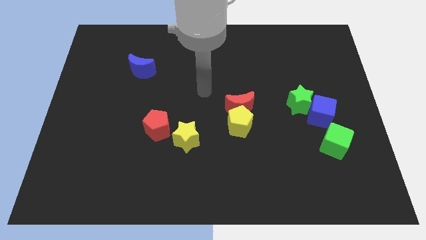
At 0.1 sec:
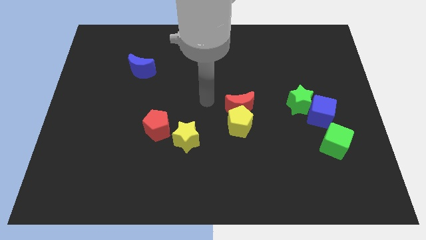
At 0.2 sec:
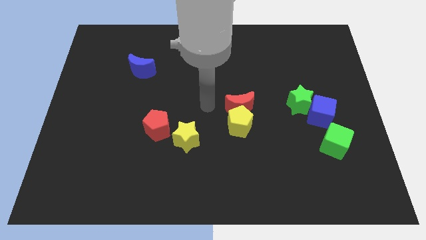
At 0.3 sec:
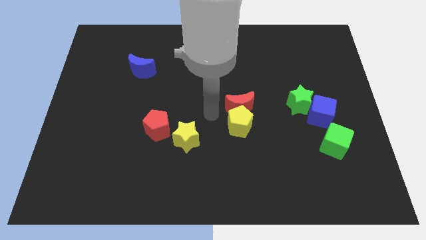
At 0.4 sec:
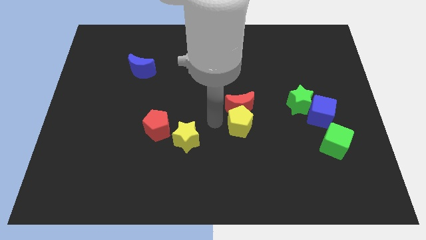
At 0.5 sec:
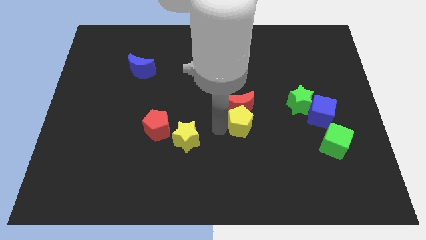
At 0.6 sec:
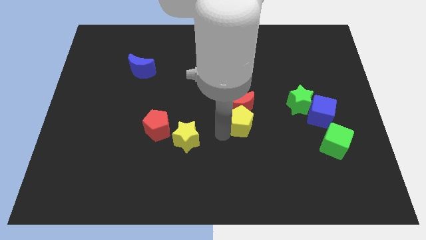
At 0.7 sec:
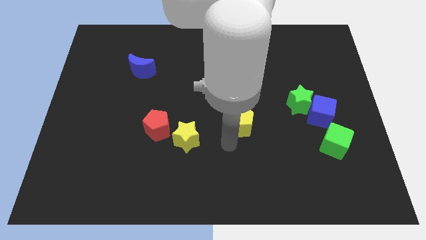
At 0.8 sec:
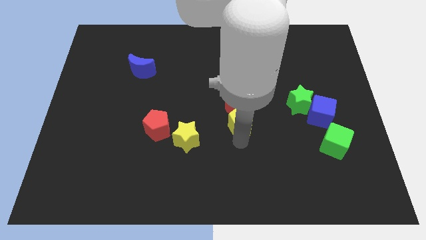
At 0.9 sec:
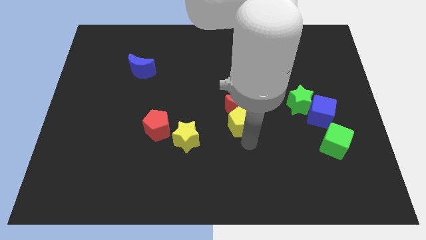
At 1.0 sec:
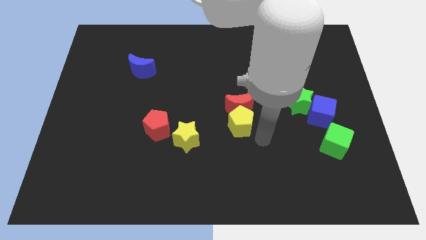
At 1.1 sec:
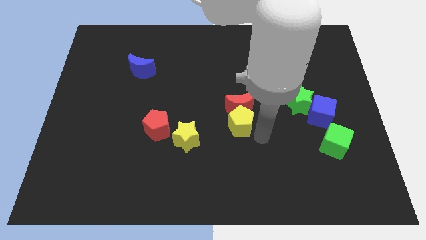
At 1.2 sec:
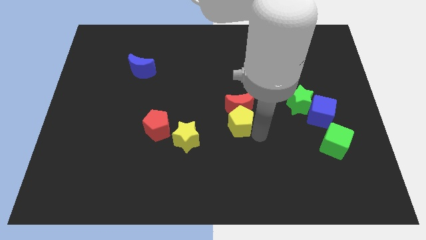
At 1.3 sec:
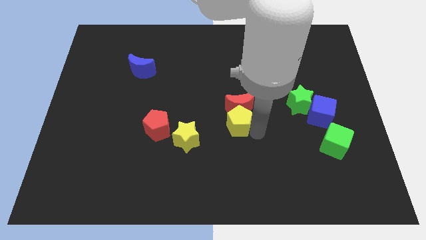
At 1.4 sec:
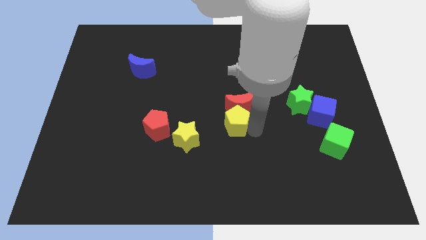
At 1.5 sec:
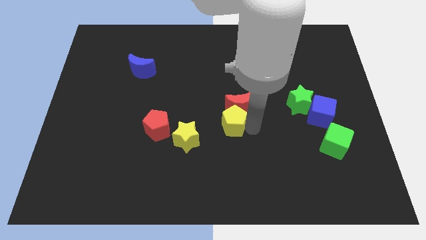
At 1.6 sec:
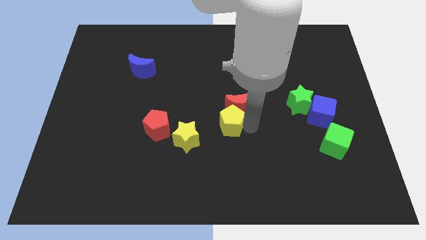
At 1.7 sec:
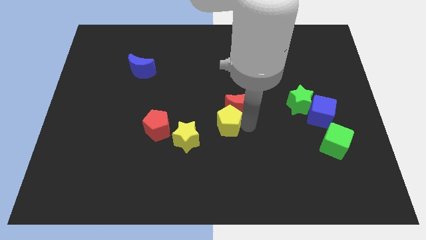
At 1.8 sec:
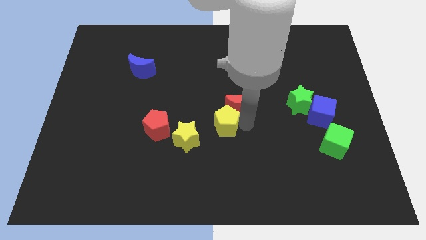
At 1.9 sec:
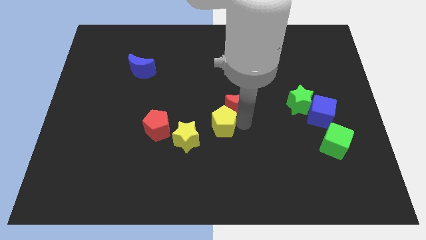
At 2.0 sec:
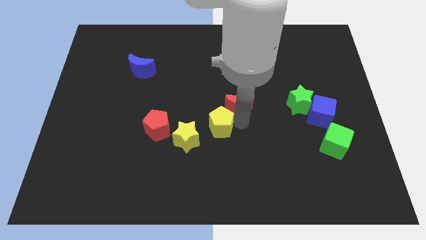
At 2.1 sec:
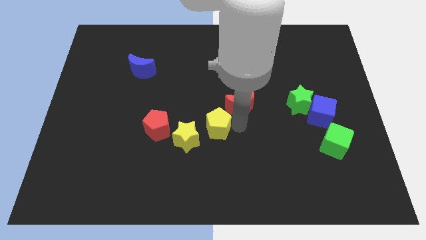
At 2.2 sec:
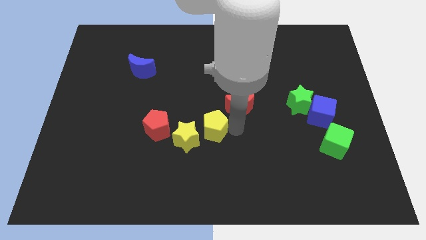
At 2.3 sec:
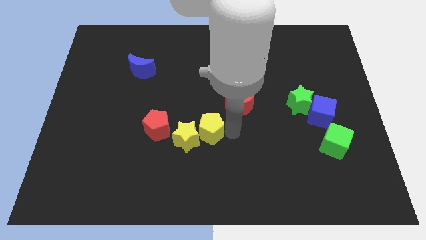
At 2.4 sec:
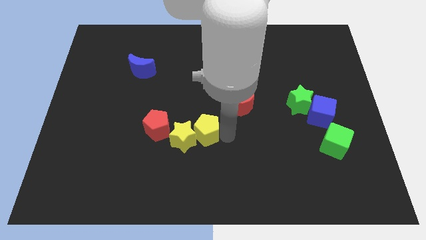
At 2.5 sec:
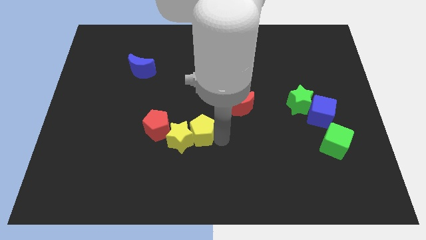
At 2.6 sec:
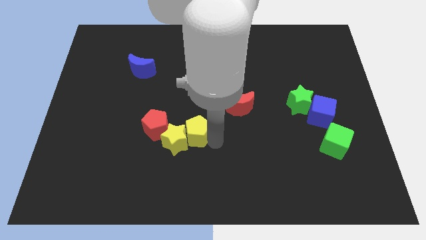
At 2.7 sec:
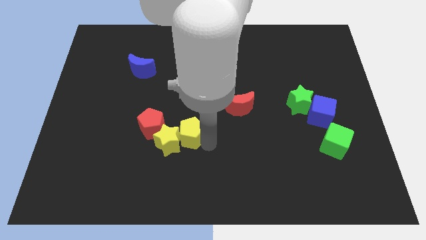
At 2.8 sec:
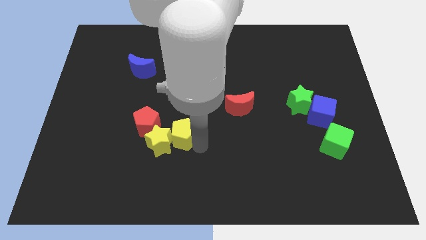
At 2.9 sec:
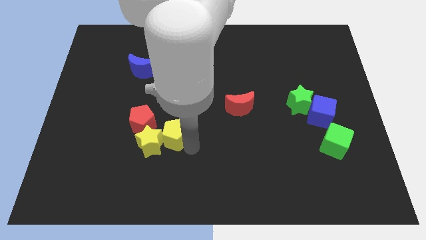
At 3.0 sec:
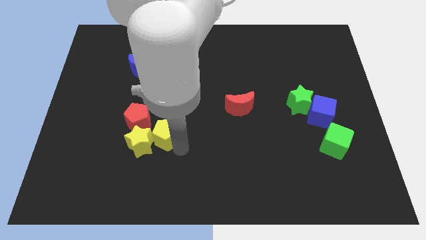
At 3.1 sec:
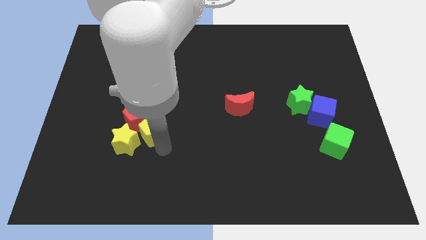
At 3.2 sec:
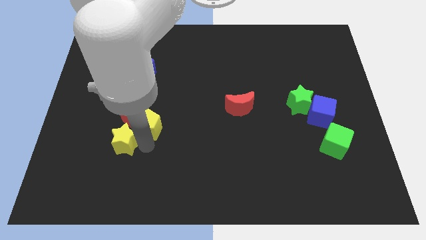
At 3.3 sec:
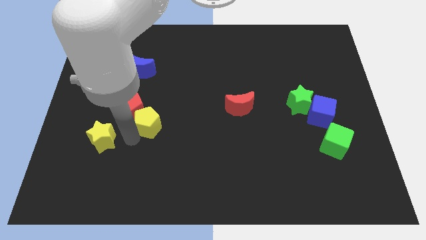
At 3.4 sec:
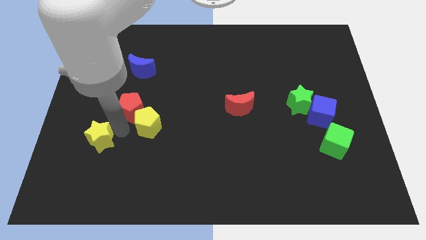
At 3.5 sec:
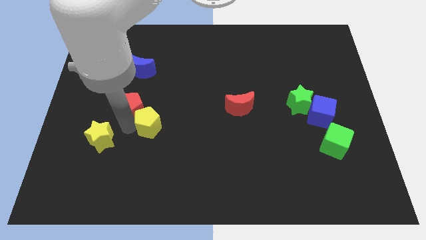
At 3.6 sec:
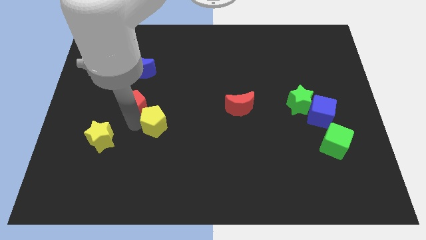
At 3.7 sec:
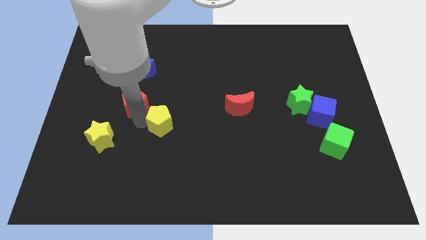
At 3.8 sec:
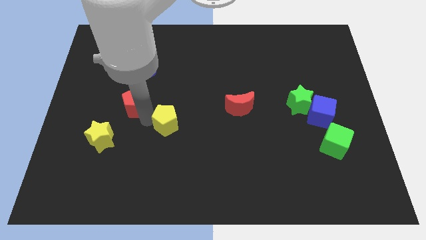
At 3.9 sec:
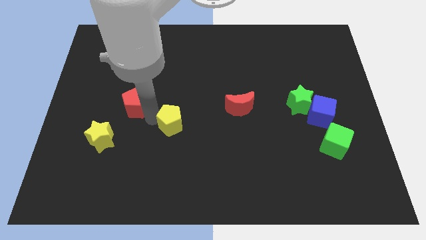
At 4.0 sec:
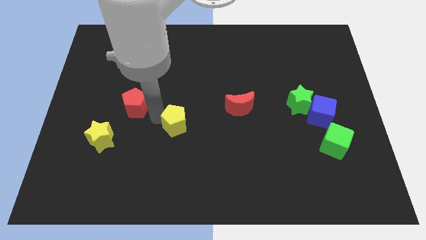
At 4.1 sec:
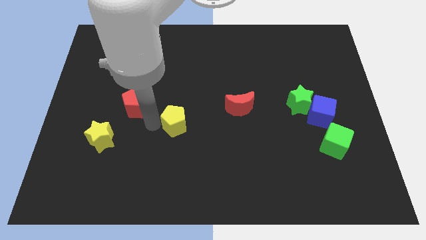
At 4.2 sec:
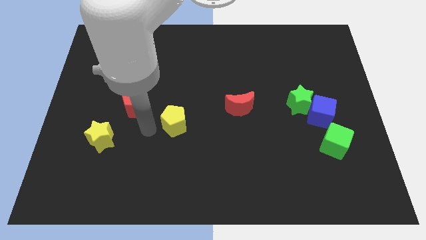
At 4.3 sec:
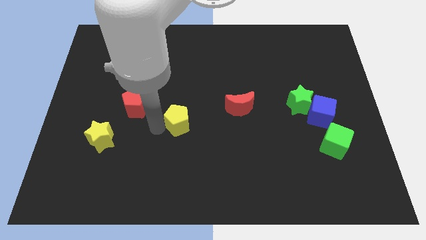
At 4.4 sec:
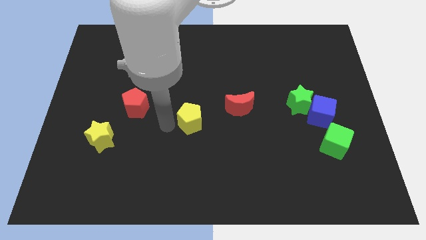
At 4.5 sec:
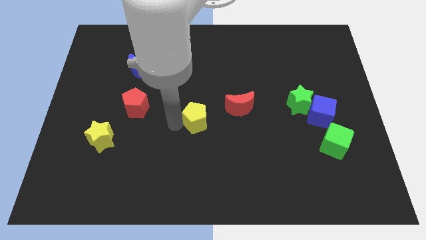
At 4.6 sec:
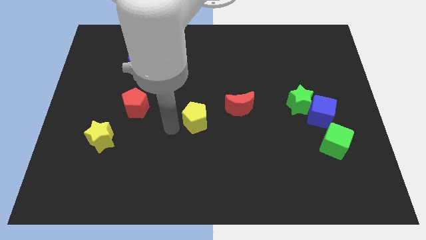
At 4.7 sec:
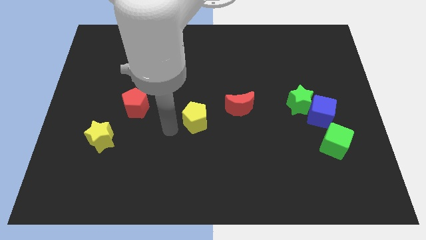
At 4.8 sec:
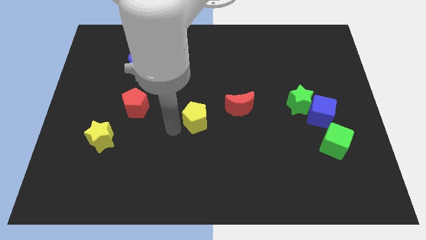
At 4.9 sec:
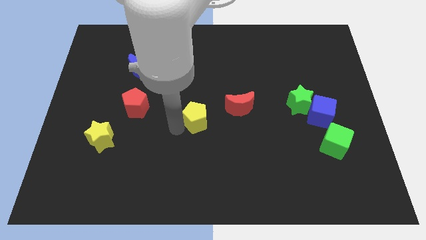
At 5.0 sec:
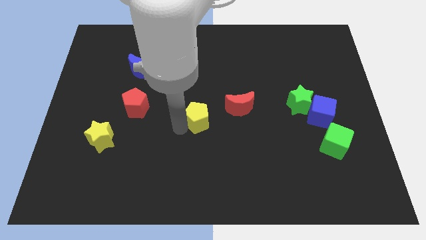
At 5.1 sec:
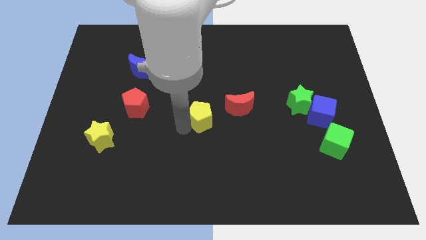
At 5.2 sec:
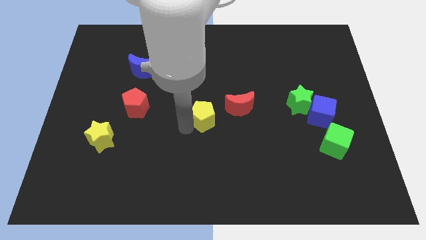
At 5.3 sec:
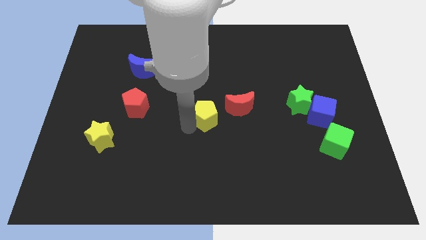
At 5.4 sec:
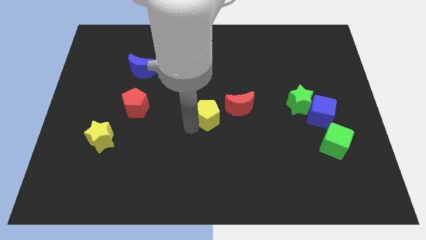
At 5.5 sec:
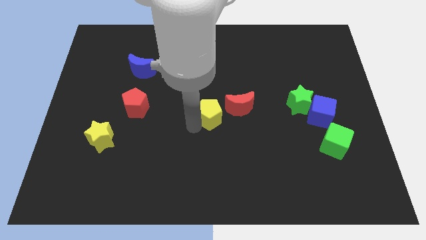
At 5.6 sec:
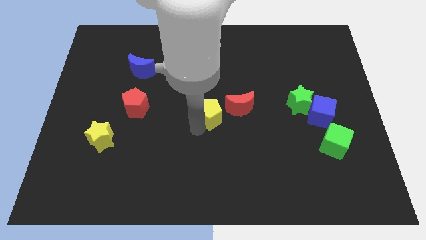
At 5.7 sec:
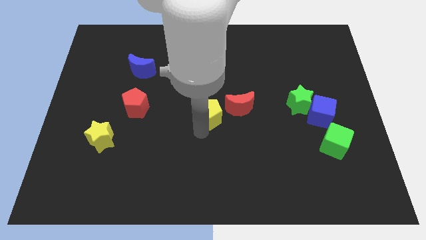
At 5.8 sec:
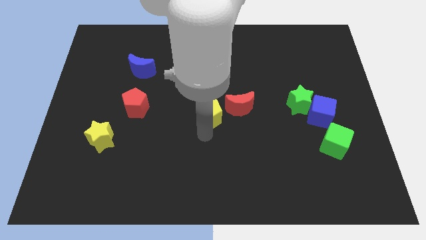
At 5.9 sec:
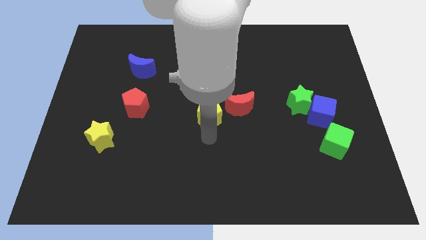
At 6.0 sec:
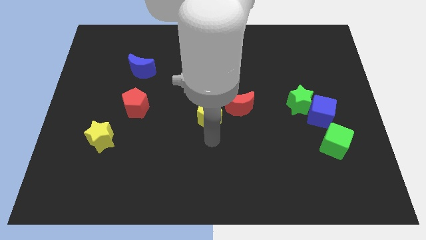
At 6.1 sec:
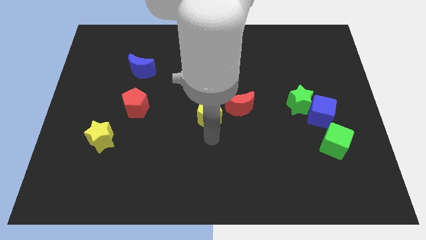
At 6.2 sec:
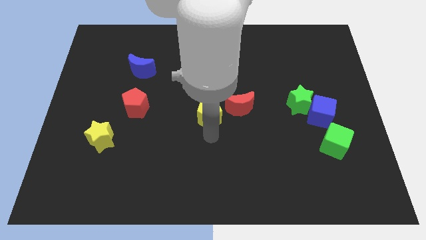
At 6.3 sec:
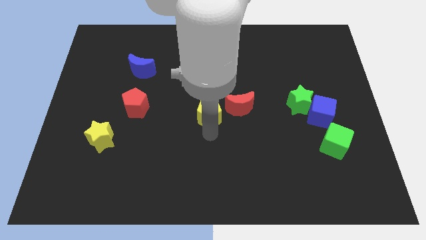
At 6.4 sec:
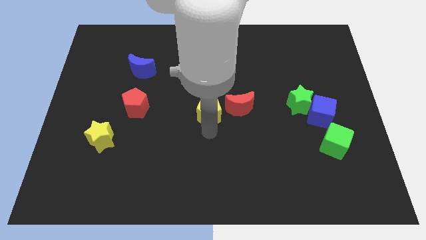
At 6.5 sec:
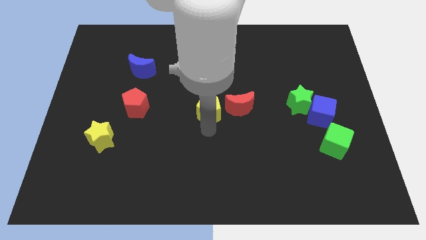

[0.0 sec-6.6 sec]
slightly slide the yellow pentagon upwards and to the left diagonally

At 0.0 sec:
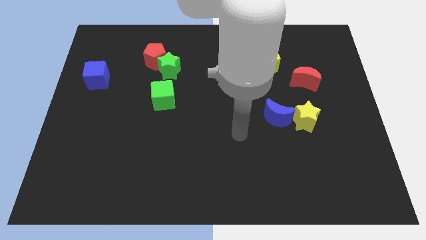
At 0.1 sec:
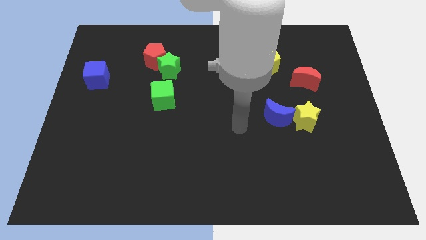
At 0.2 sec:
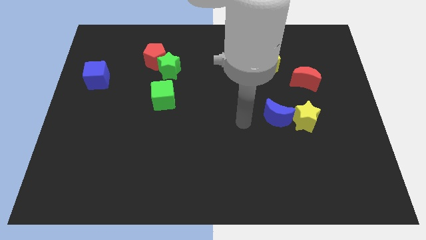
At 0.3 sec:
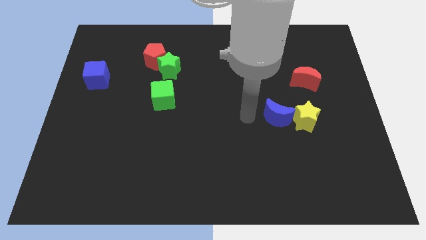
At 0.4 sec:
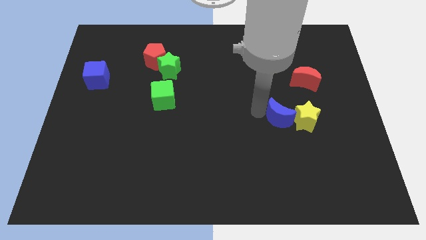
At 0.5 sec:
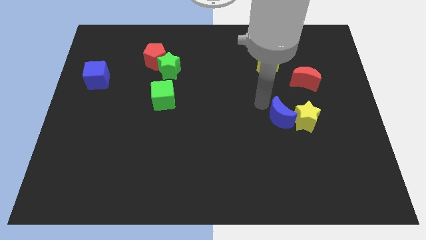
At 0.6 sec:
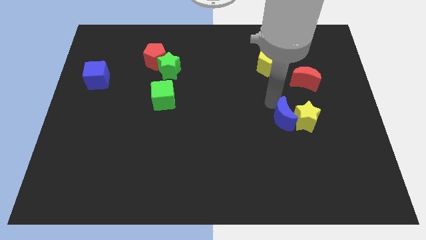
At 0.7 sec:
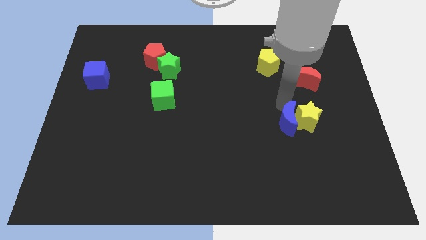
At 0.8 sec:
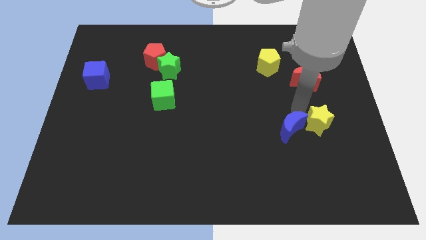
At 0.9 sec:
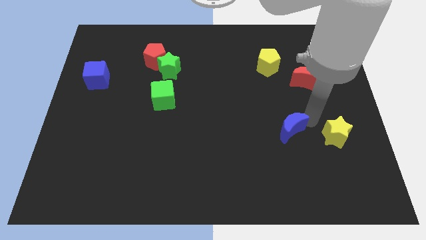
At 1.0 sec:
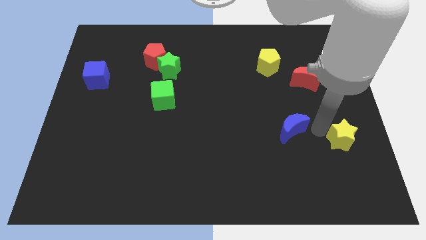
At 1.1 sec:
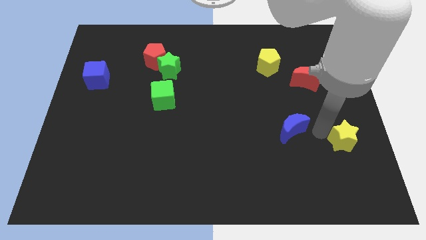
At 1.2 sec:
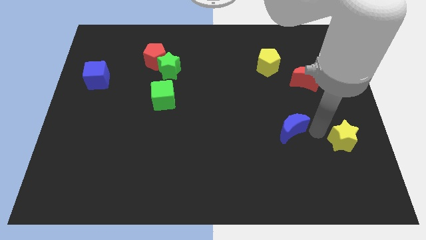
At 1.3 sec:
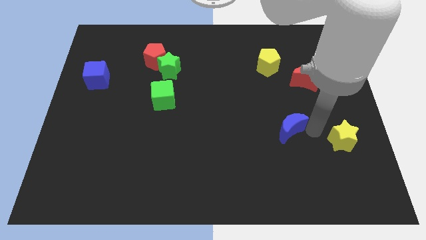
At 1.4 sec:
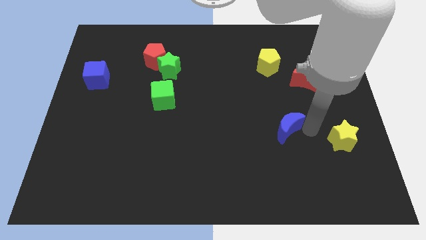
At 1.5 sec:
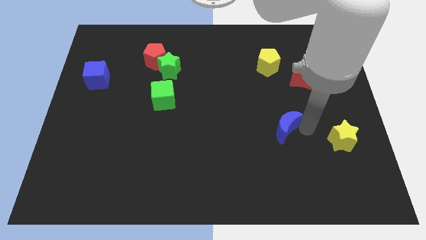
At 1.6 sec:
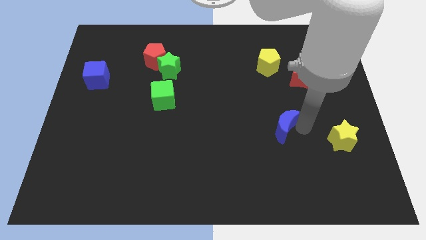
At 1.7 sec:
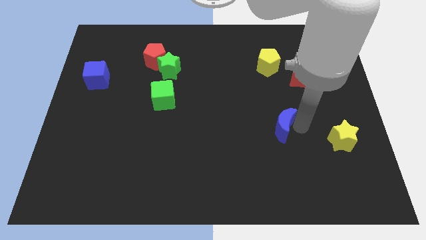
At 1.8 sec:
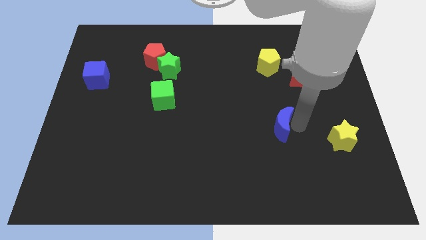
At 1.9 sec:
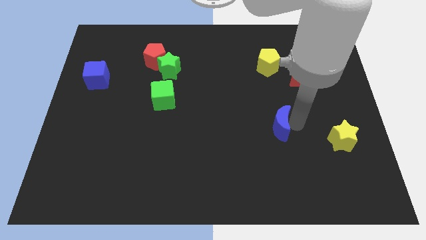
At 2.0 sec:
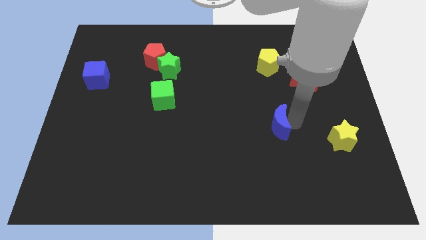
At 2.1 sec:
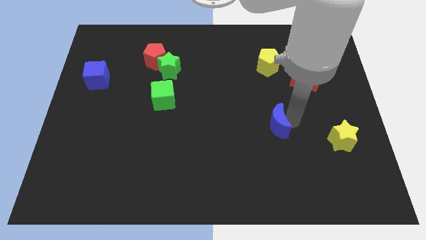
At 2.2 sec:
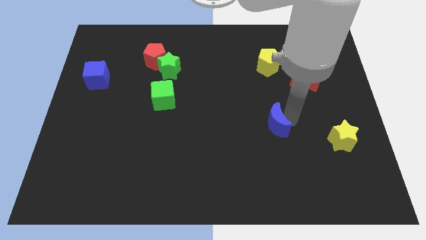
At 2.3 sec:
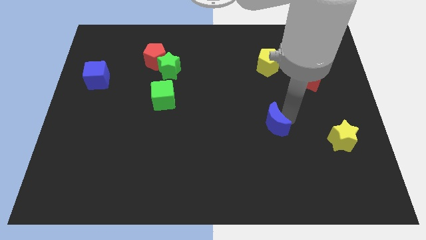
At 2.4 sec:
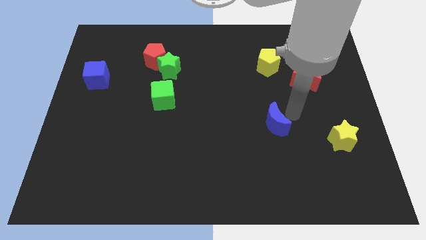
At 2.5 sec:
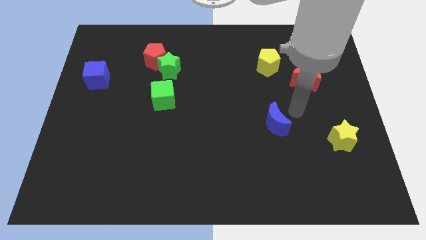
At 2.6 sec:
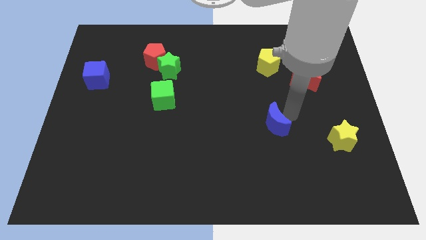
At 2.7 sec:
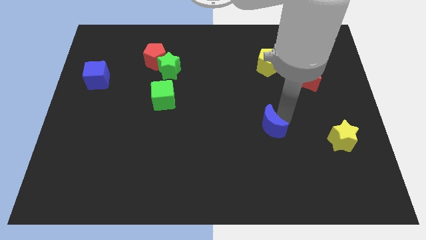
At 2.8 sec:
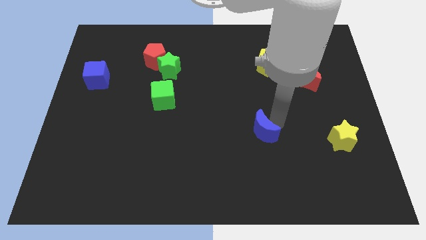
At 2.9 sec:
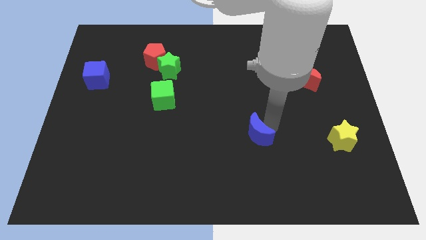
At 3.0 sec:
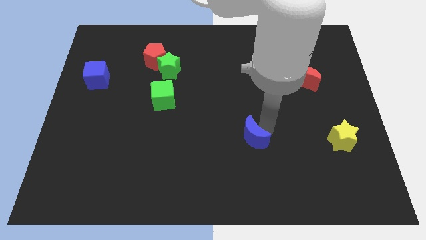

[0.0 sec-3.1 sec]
slightly move the blue moon downwards and left
